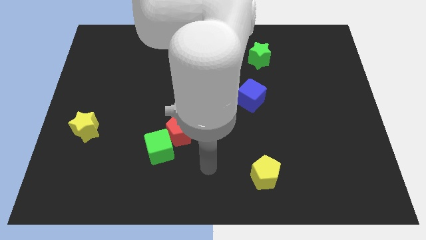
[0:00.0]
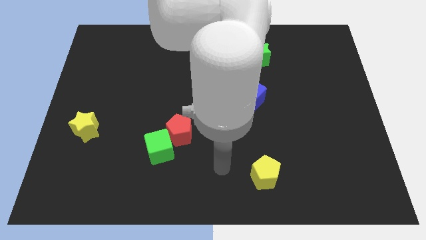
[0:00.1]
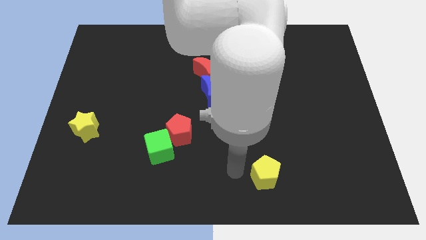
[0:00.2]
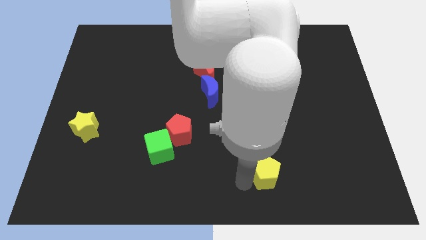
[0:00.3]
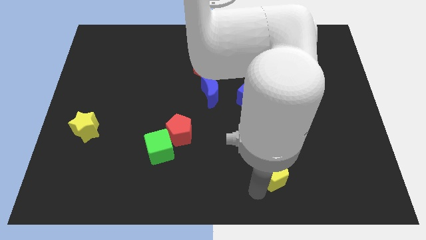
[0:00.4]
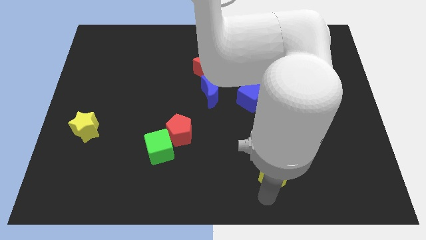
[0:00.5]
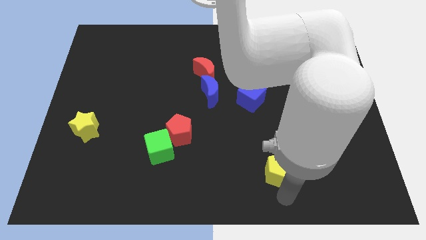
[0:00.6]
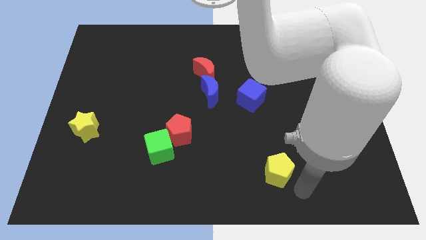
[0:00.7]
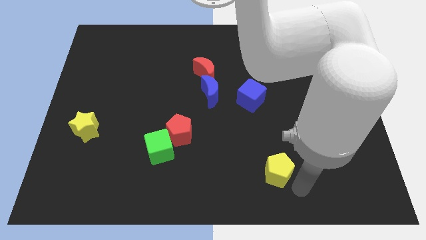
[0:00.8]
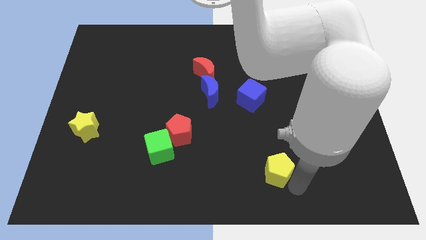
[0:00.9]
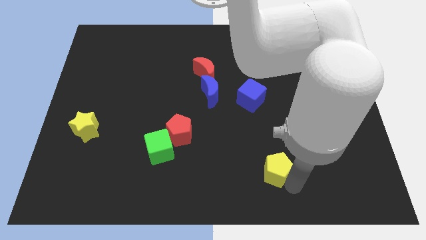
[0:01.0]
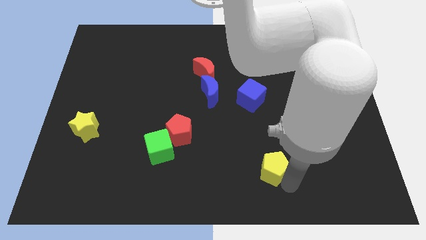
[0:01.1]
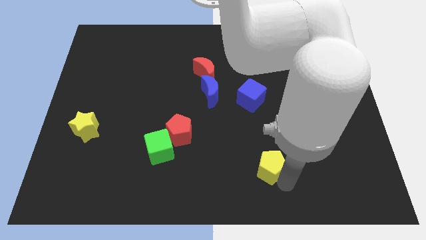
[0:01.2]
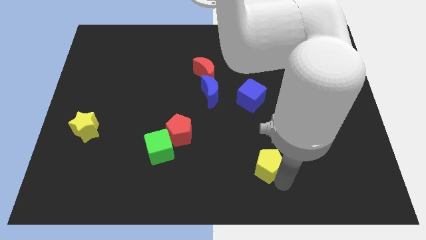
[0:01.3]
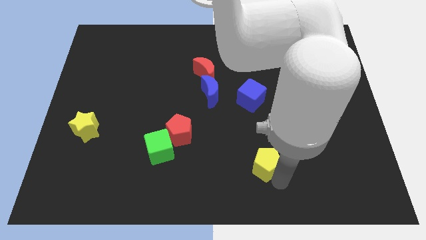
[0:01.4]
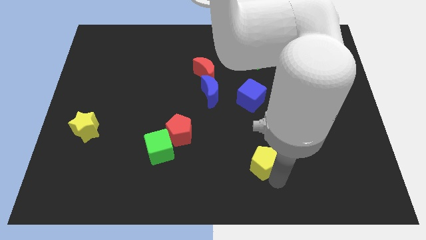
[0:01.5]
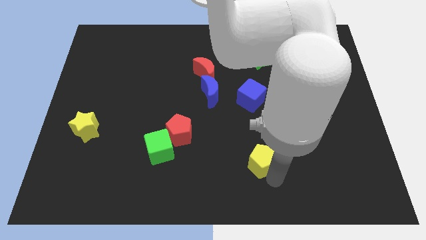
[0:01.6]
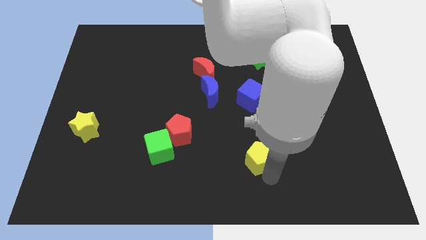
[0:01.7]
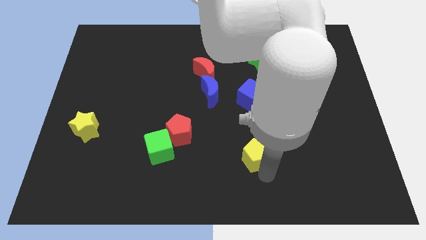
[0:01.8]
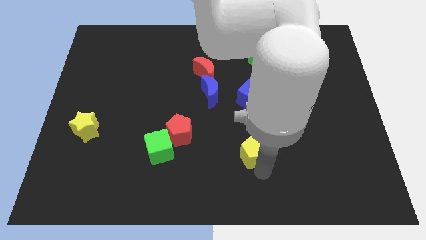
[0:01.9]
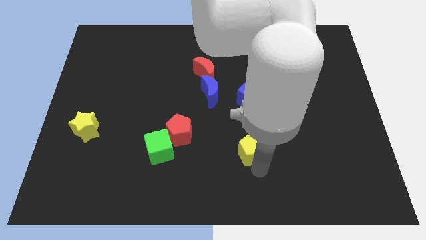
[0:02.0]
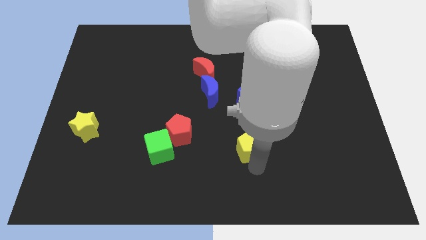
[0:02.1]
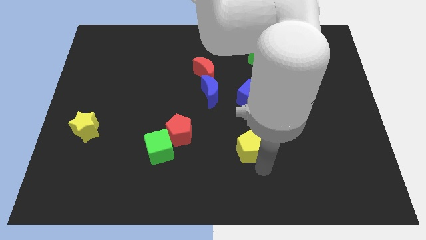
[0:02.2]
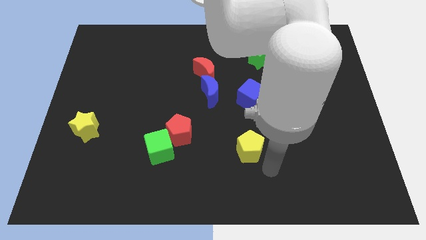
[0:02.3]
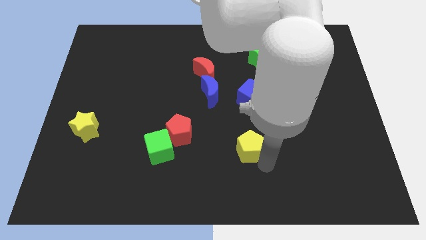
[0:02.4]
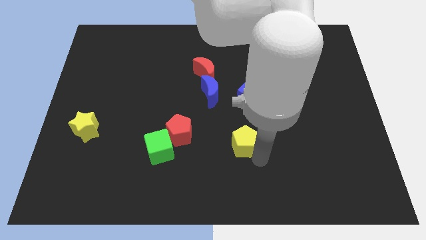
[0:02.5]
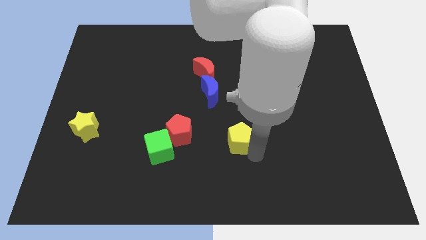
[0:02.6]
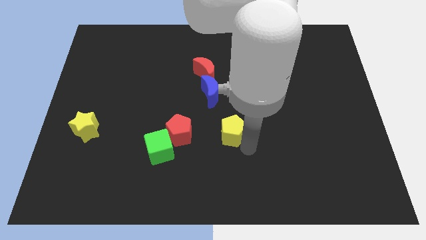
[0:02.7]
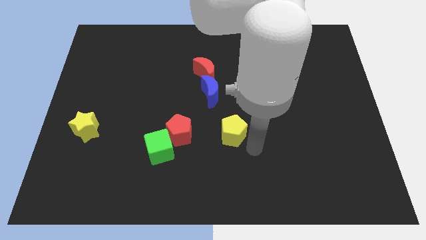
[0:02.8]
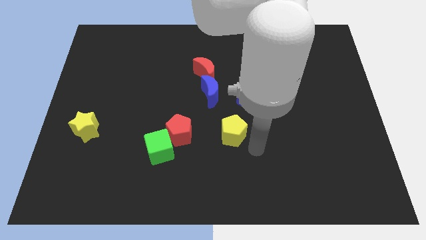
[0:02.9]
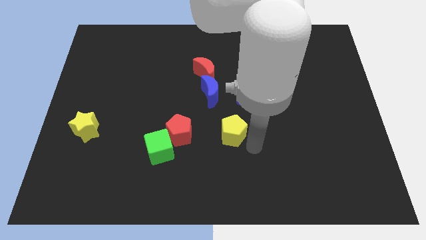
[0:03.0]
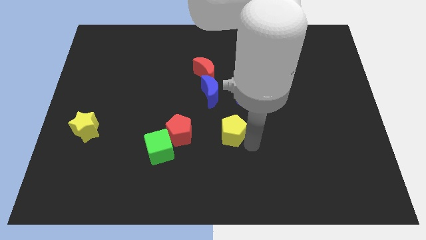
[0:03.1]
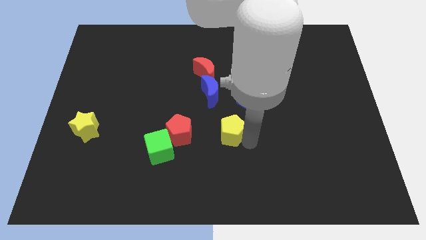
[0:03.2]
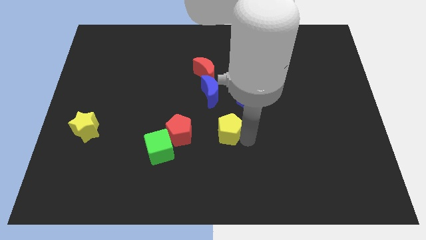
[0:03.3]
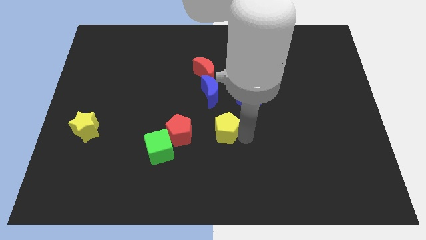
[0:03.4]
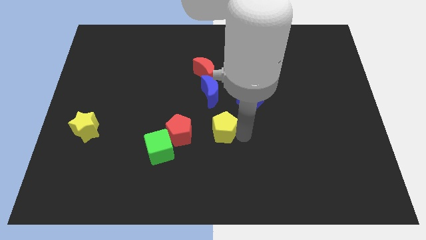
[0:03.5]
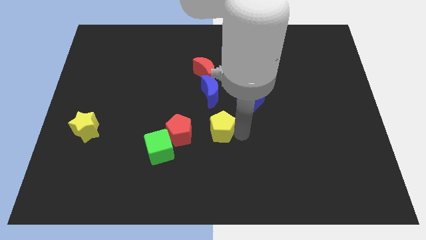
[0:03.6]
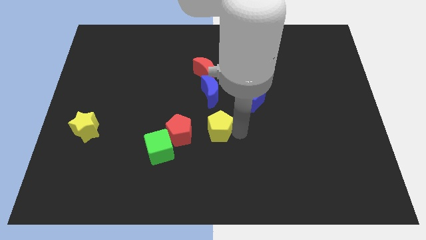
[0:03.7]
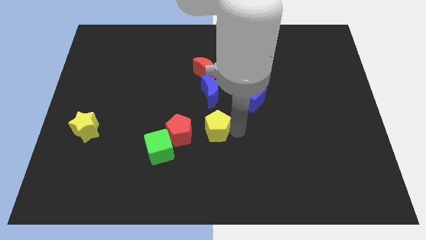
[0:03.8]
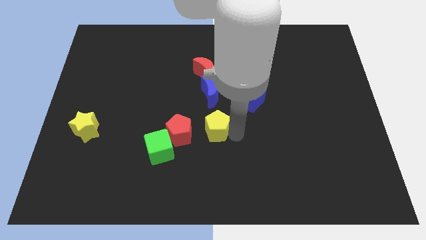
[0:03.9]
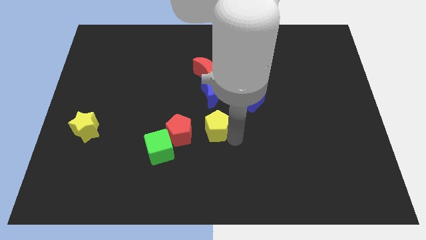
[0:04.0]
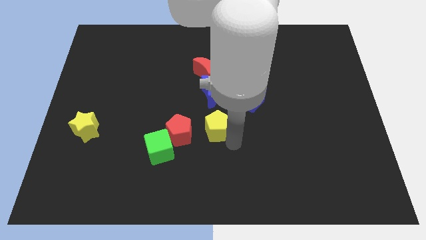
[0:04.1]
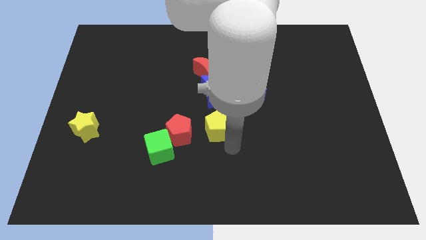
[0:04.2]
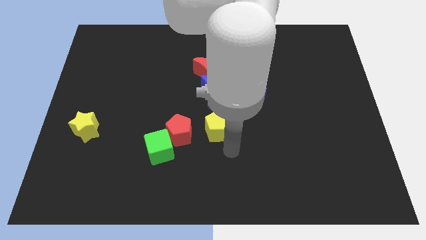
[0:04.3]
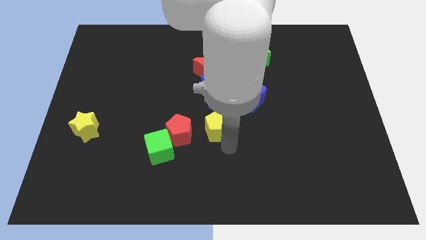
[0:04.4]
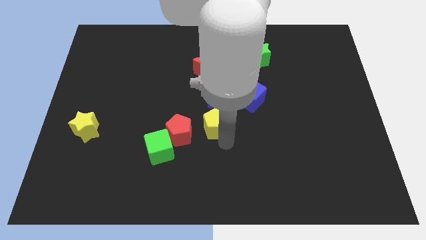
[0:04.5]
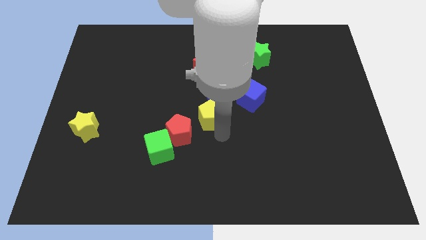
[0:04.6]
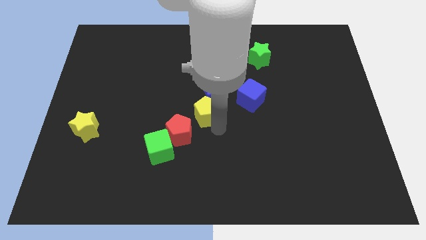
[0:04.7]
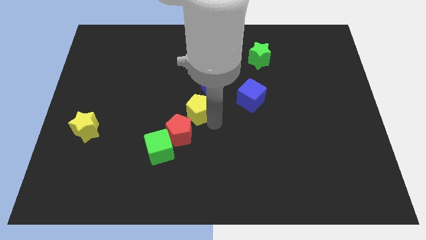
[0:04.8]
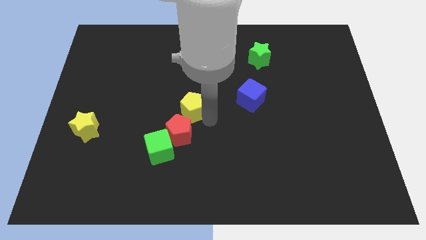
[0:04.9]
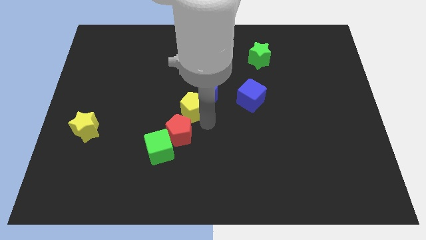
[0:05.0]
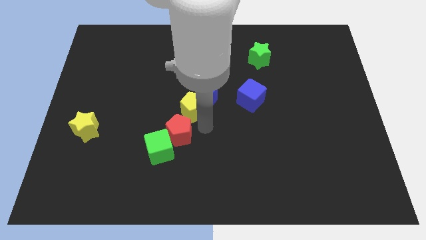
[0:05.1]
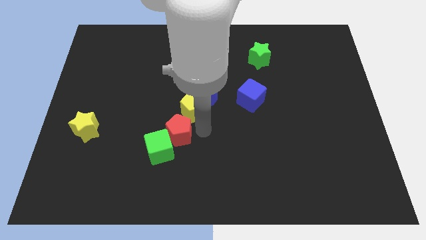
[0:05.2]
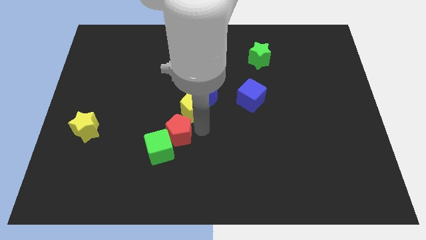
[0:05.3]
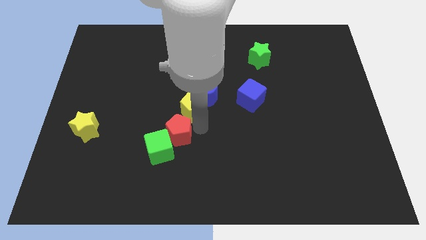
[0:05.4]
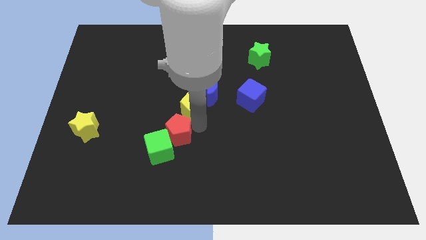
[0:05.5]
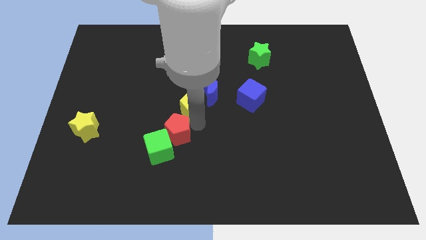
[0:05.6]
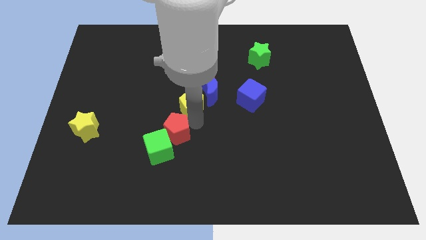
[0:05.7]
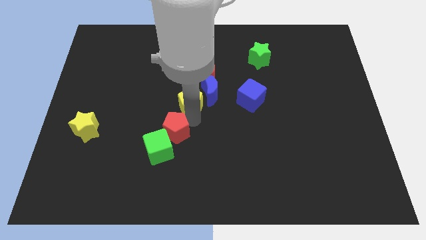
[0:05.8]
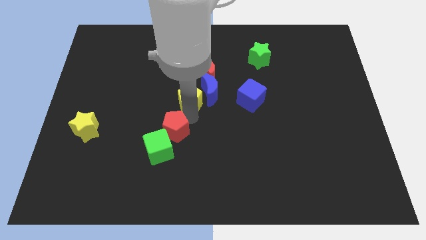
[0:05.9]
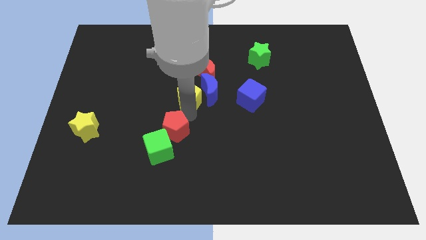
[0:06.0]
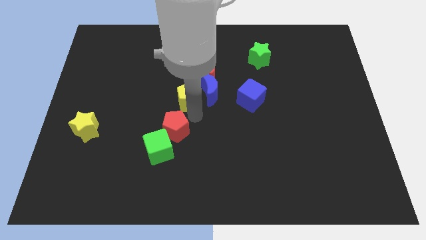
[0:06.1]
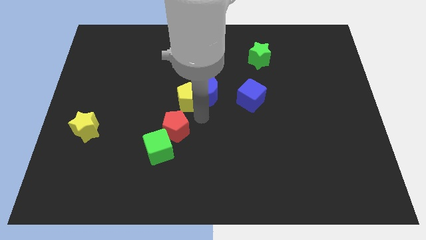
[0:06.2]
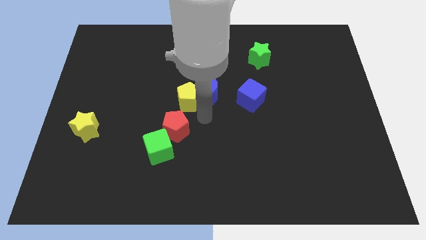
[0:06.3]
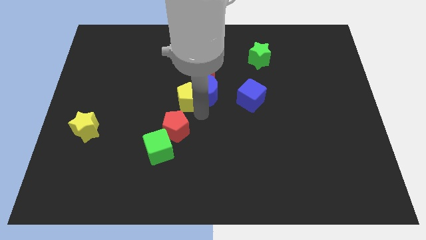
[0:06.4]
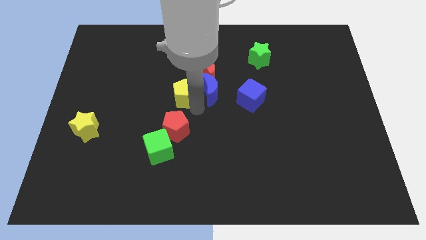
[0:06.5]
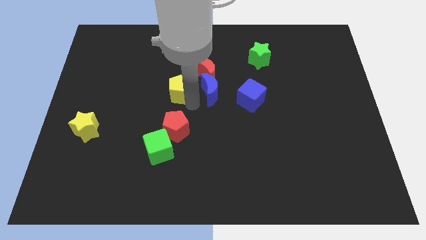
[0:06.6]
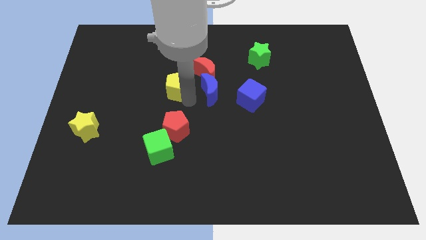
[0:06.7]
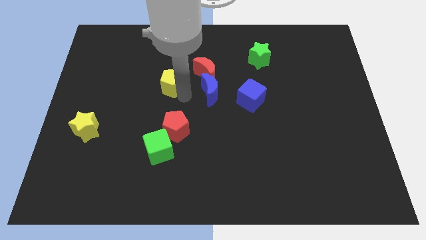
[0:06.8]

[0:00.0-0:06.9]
slide the yellow pentagon to the left side of the red moon
